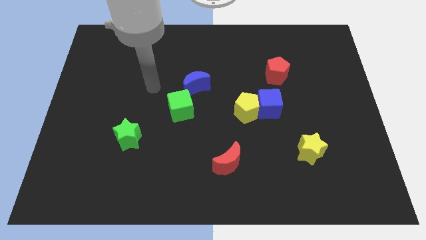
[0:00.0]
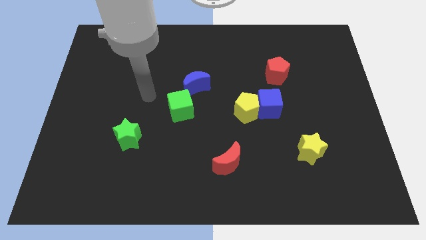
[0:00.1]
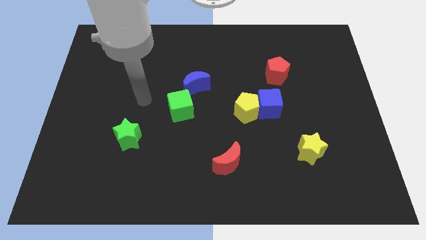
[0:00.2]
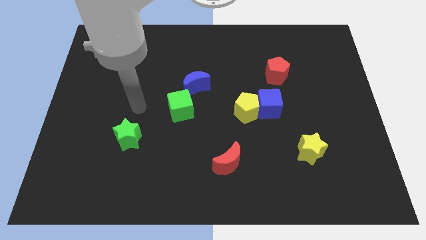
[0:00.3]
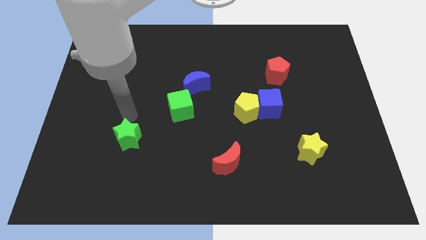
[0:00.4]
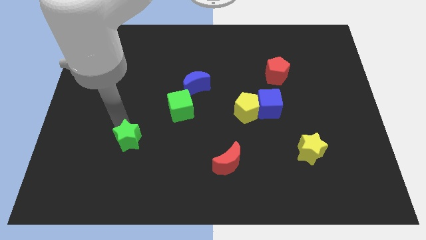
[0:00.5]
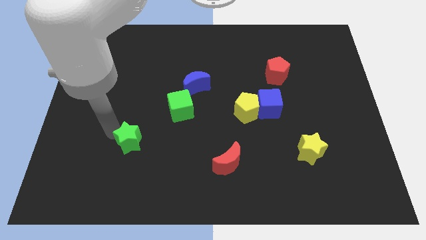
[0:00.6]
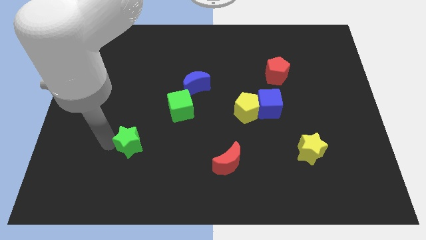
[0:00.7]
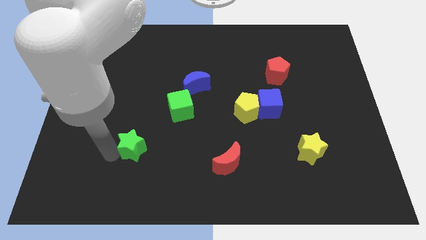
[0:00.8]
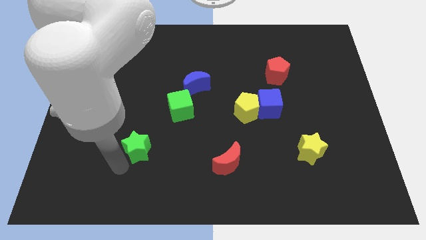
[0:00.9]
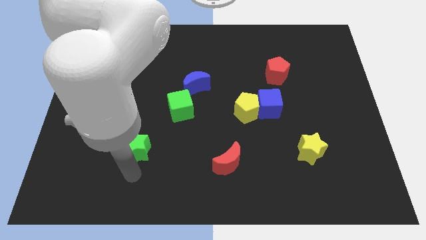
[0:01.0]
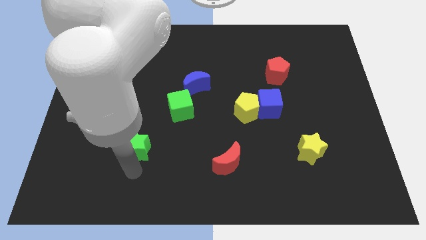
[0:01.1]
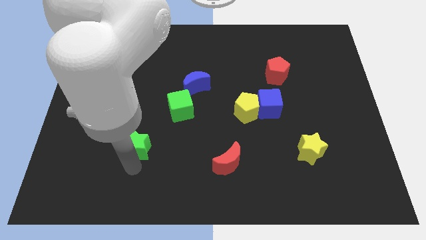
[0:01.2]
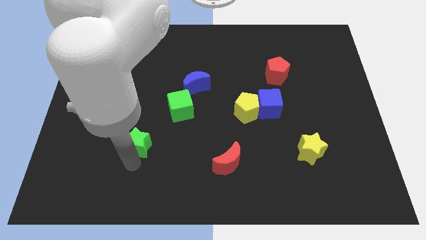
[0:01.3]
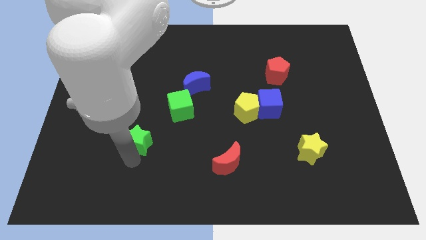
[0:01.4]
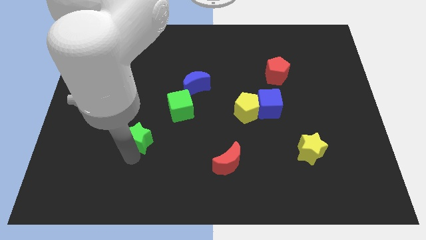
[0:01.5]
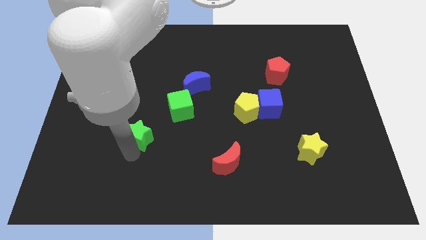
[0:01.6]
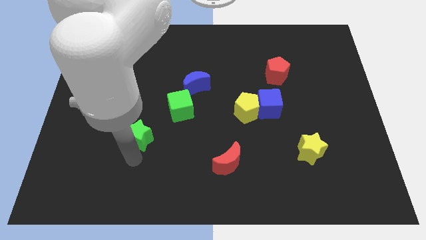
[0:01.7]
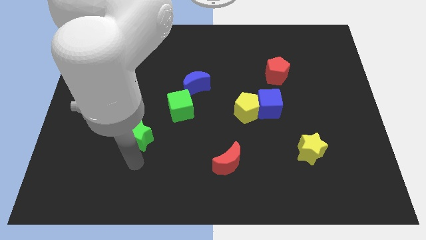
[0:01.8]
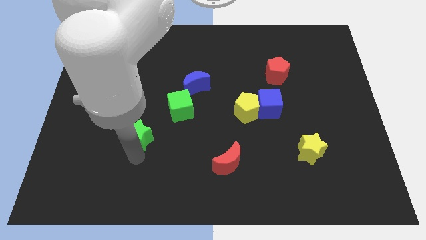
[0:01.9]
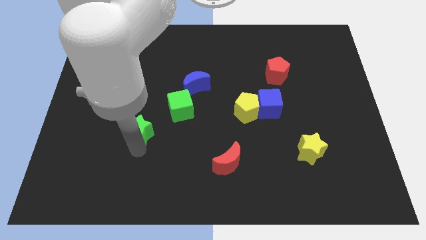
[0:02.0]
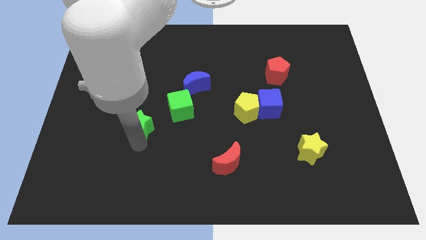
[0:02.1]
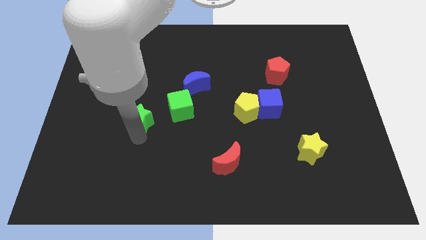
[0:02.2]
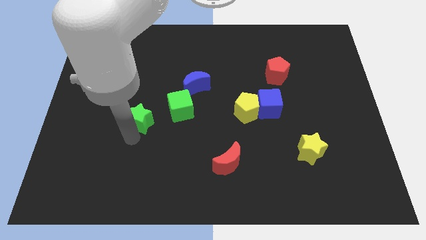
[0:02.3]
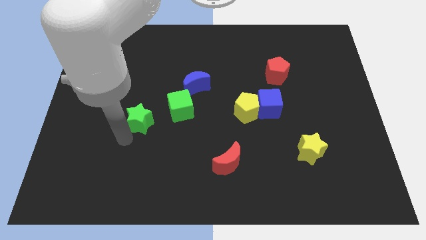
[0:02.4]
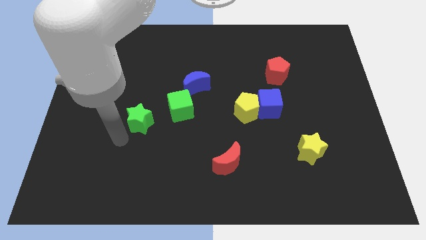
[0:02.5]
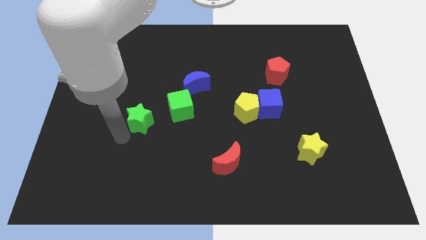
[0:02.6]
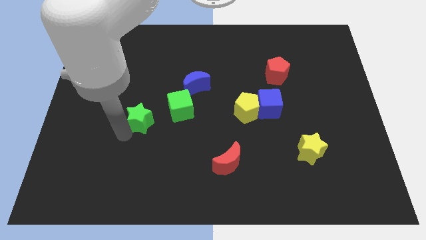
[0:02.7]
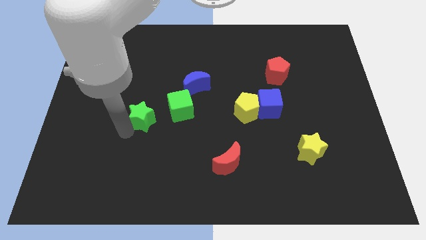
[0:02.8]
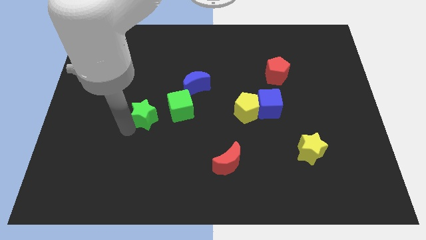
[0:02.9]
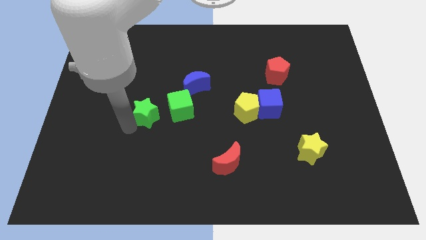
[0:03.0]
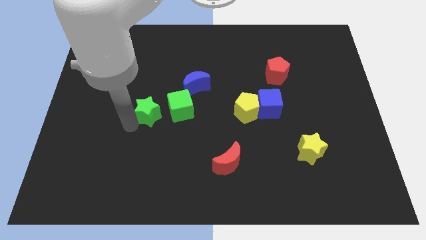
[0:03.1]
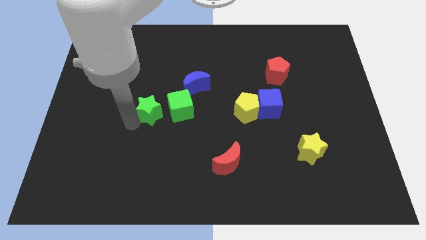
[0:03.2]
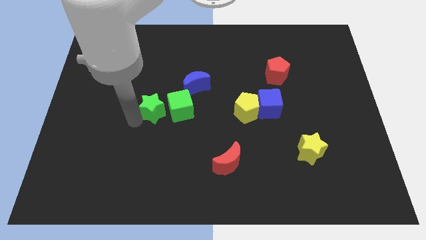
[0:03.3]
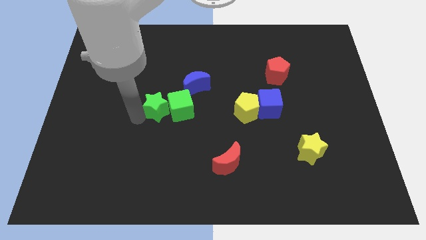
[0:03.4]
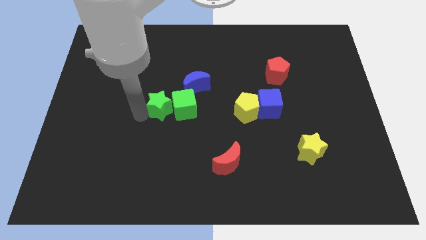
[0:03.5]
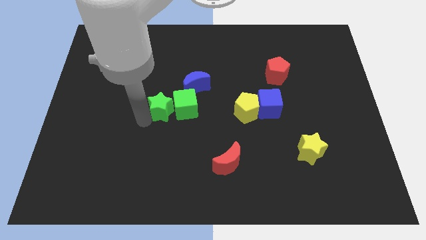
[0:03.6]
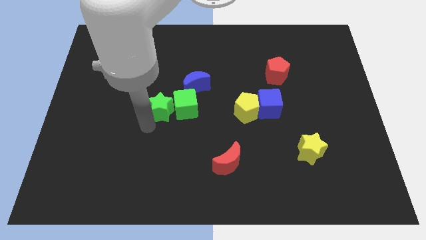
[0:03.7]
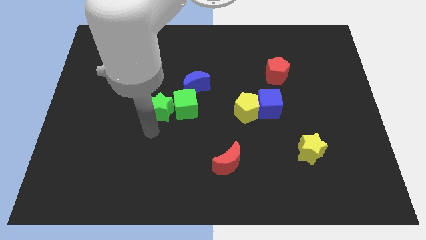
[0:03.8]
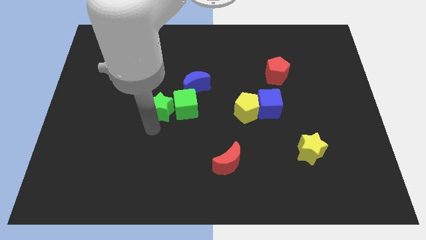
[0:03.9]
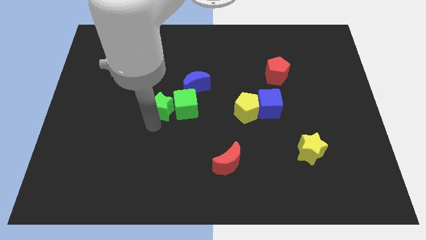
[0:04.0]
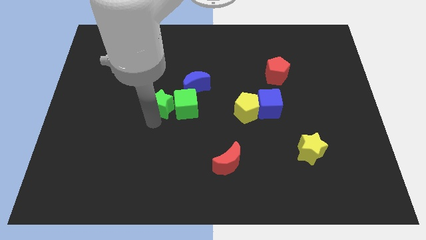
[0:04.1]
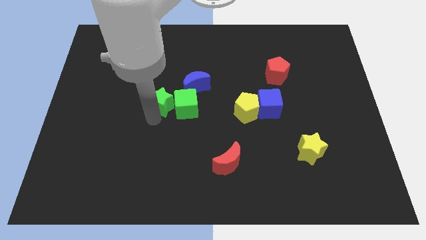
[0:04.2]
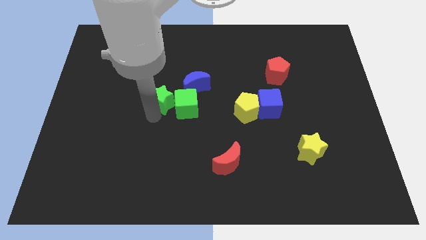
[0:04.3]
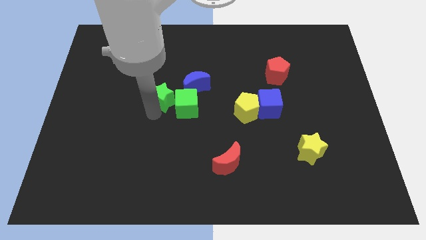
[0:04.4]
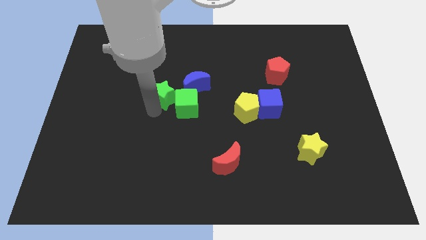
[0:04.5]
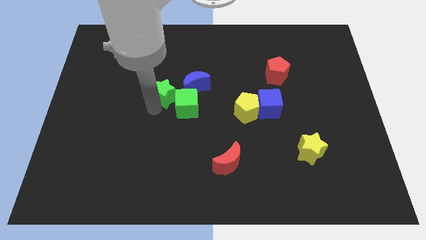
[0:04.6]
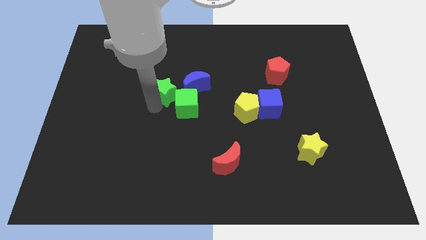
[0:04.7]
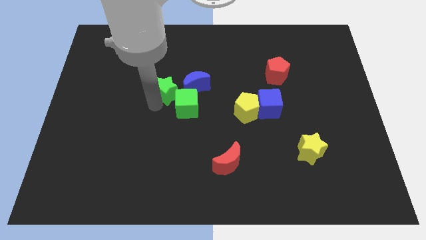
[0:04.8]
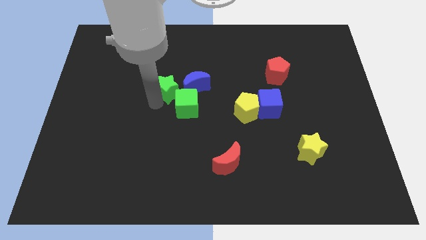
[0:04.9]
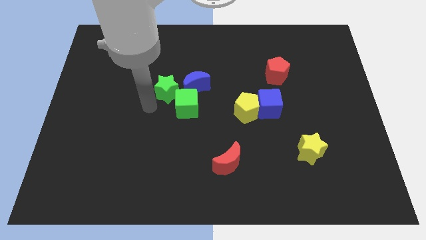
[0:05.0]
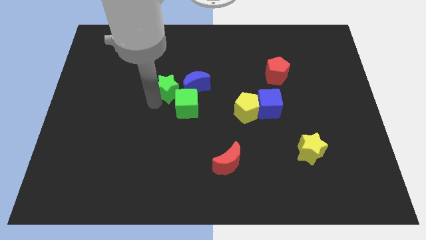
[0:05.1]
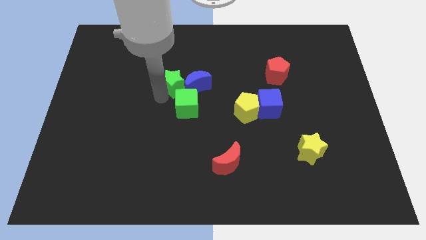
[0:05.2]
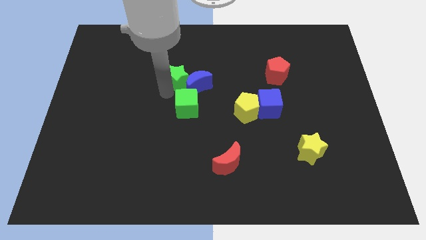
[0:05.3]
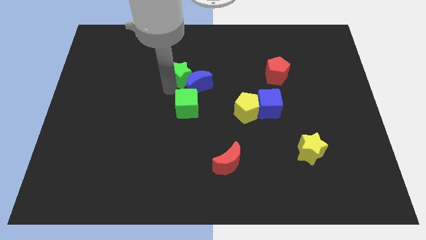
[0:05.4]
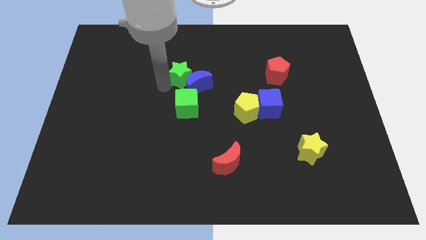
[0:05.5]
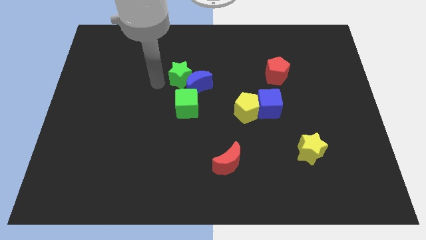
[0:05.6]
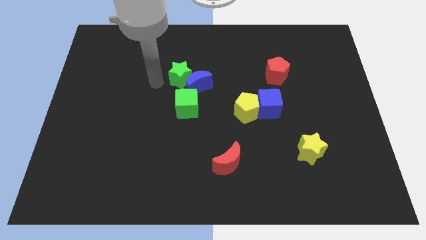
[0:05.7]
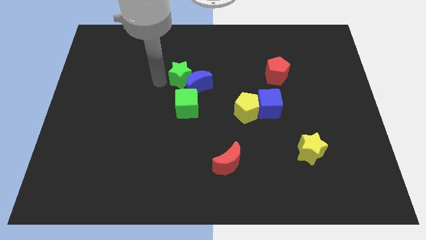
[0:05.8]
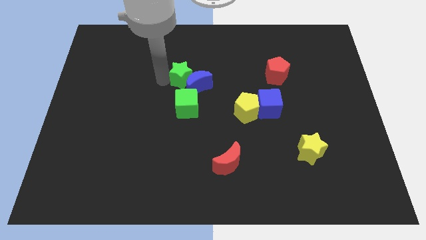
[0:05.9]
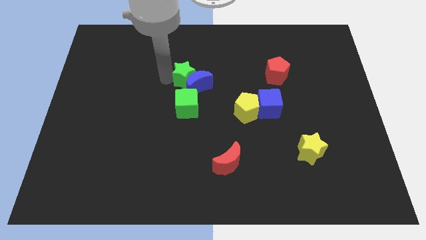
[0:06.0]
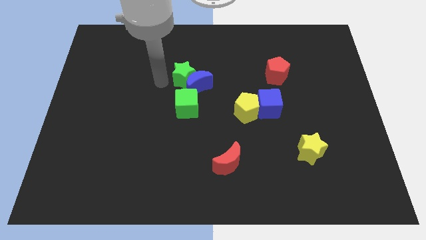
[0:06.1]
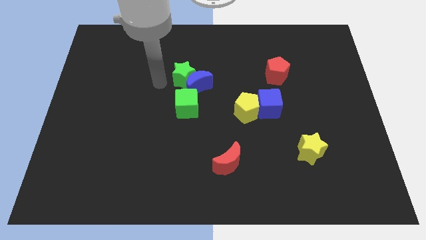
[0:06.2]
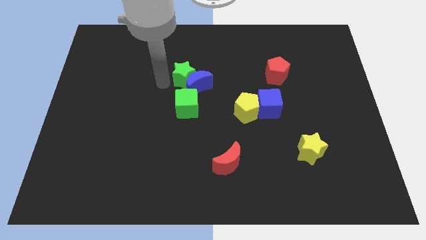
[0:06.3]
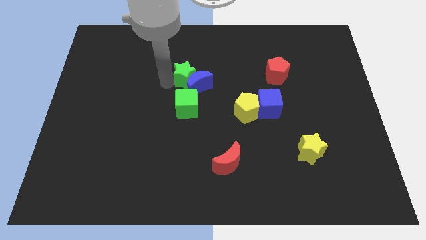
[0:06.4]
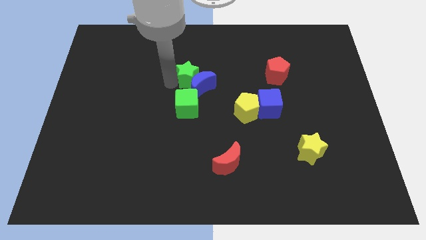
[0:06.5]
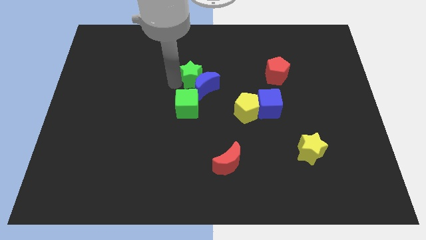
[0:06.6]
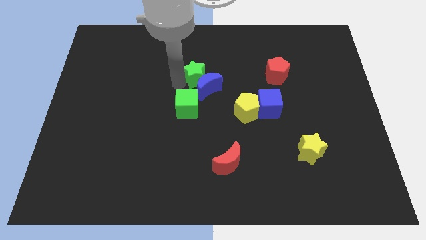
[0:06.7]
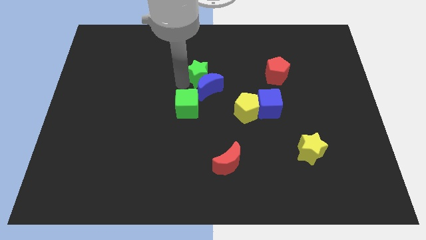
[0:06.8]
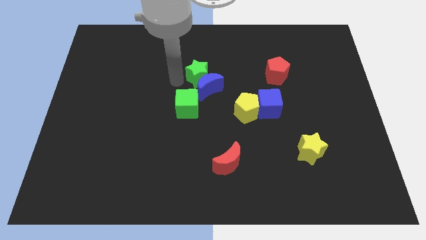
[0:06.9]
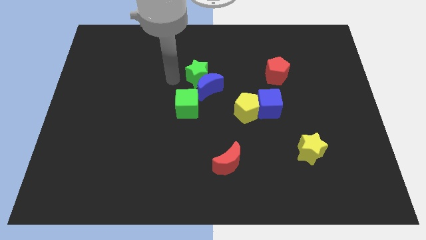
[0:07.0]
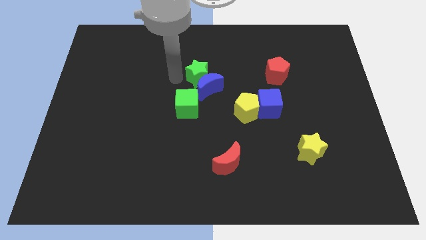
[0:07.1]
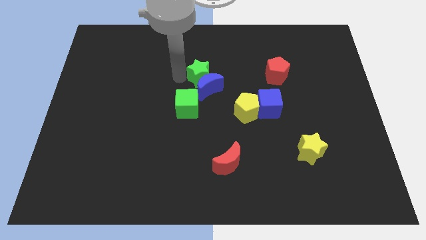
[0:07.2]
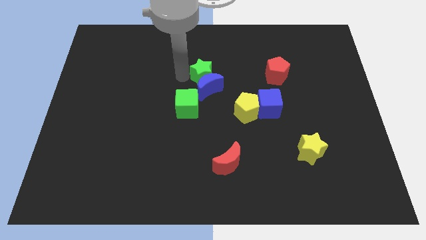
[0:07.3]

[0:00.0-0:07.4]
push the green star diagonally up and to the right of the blue moon
